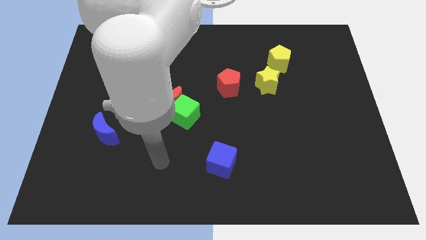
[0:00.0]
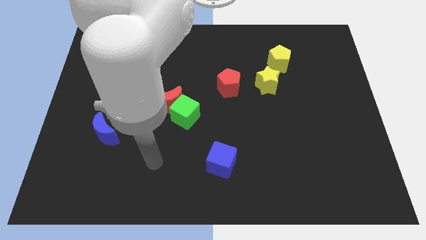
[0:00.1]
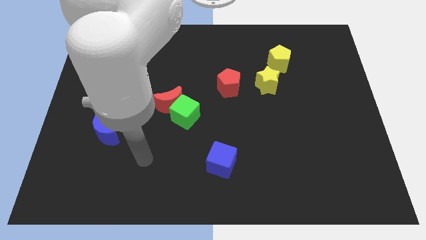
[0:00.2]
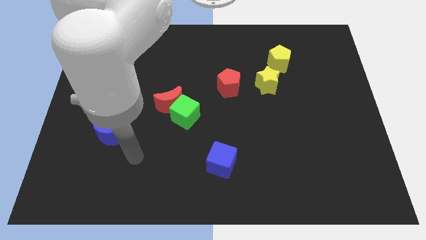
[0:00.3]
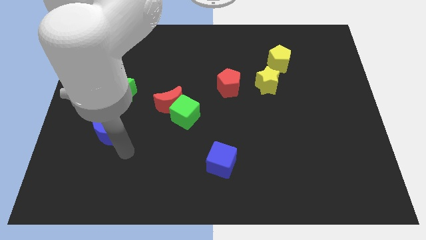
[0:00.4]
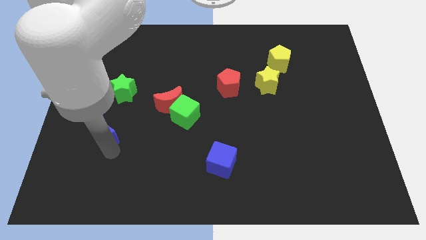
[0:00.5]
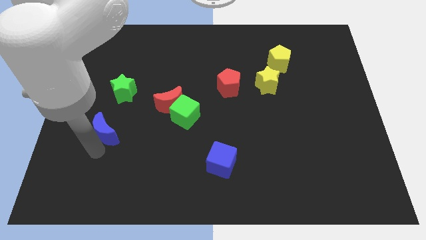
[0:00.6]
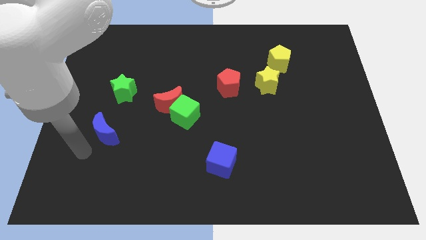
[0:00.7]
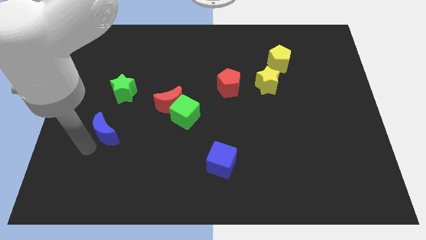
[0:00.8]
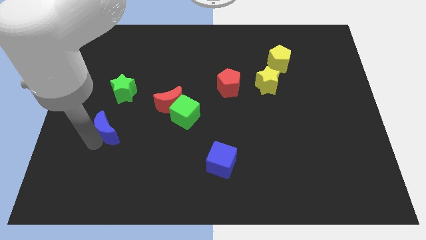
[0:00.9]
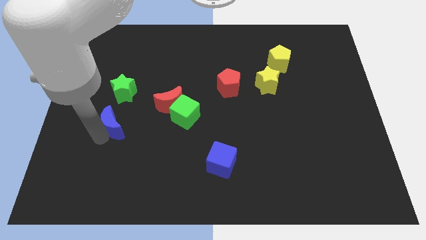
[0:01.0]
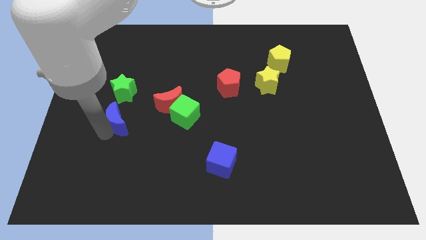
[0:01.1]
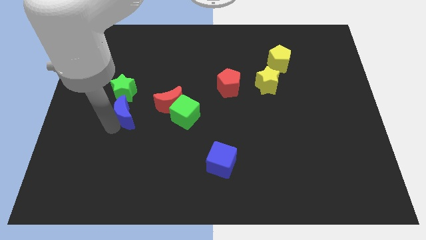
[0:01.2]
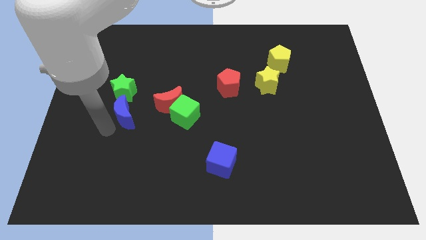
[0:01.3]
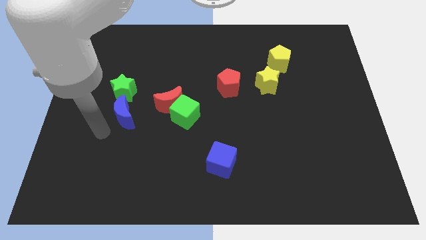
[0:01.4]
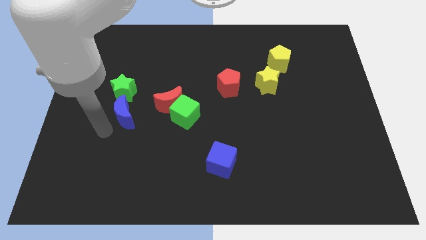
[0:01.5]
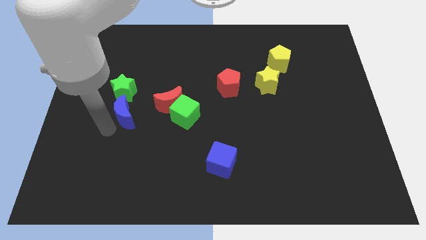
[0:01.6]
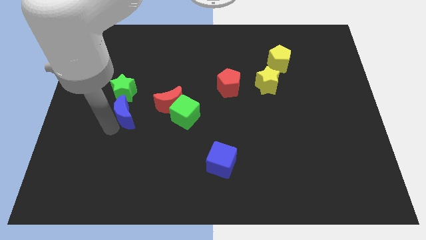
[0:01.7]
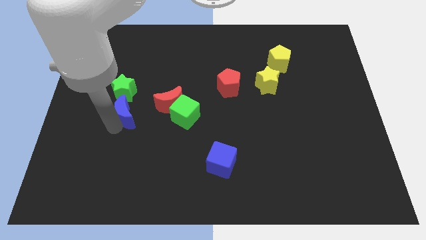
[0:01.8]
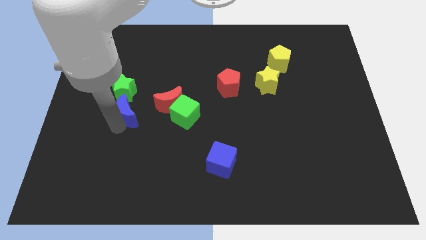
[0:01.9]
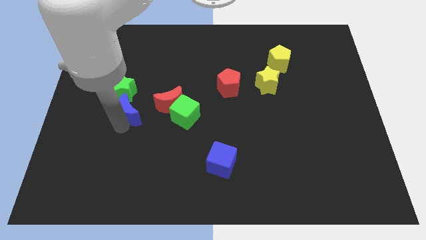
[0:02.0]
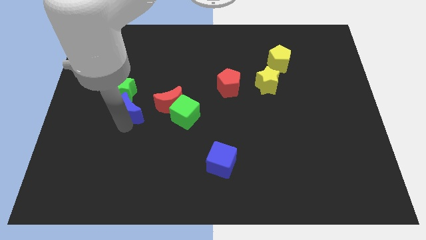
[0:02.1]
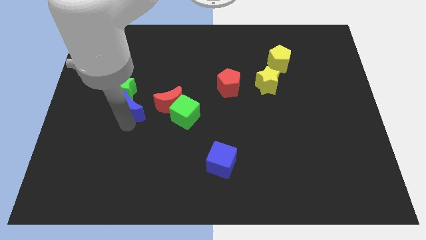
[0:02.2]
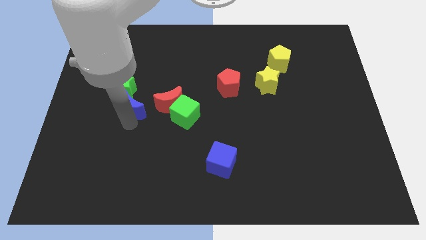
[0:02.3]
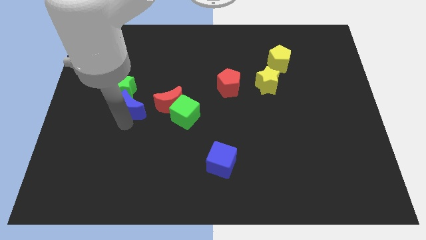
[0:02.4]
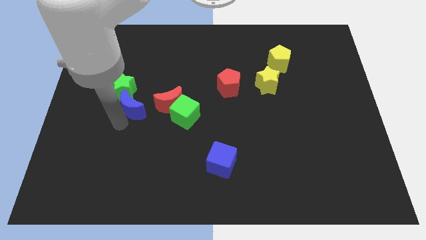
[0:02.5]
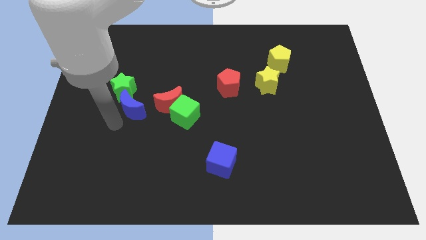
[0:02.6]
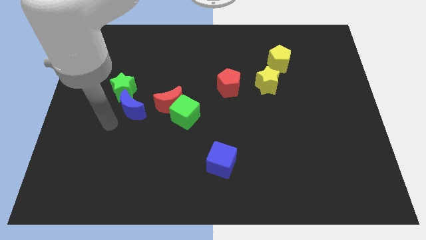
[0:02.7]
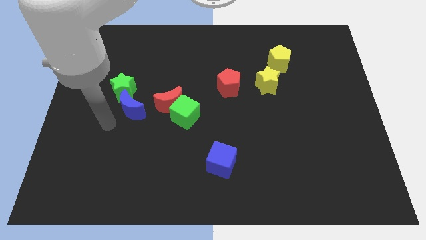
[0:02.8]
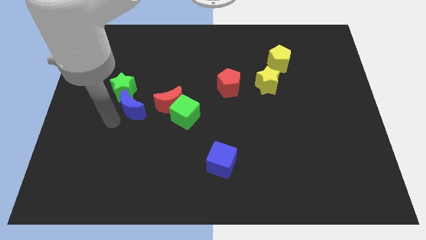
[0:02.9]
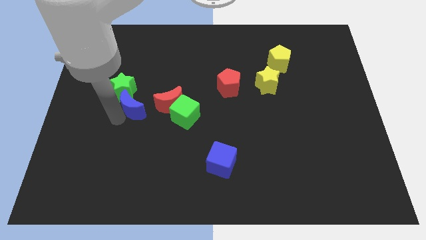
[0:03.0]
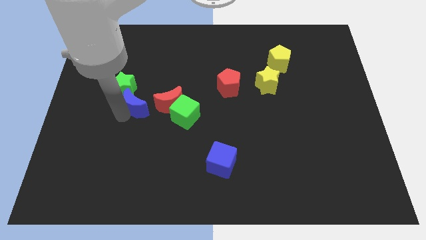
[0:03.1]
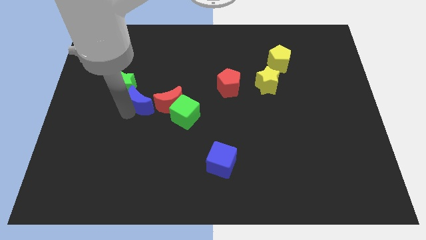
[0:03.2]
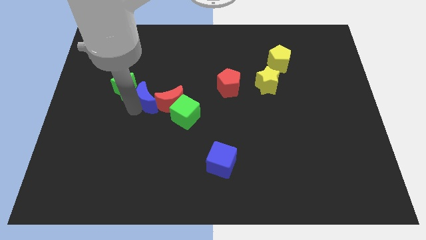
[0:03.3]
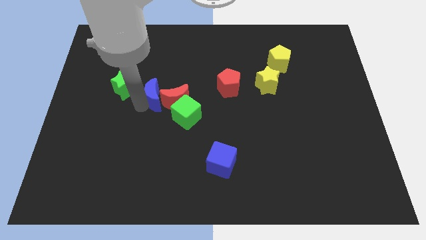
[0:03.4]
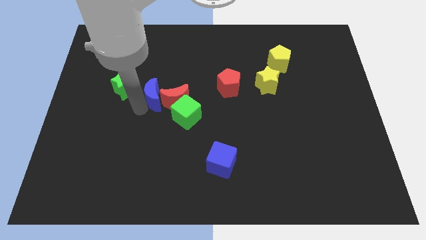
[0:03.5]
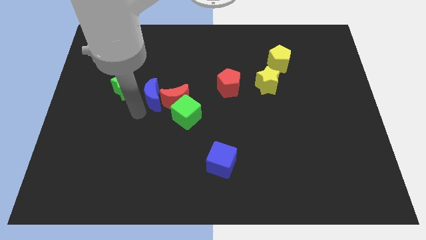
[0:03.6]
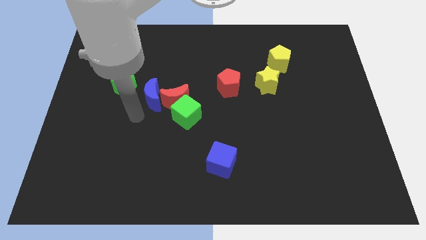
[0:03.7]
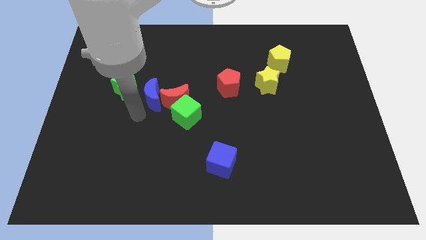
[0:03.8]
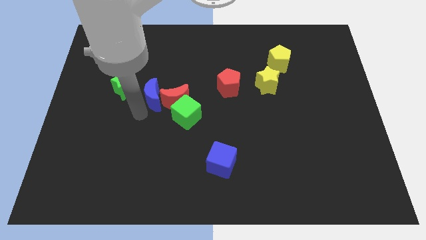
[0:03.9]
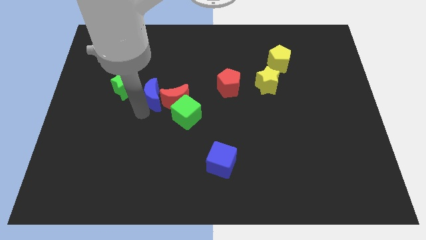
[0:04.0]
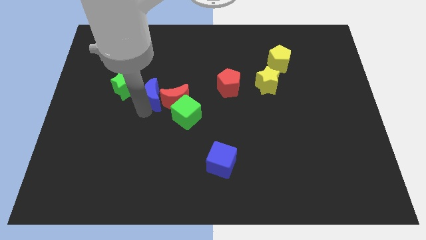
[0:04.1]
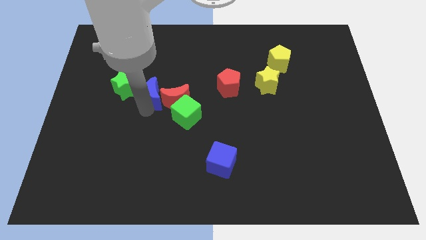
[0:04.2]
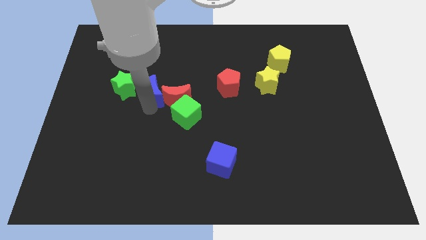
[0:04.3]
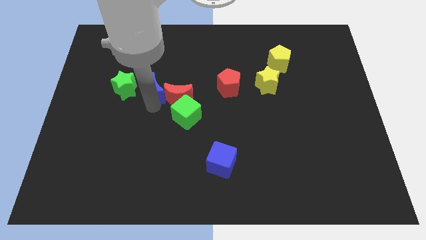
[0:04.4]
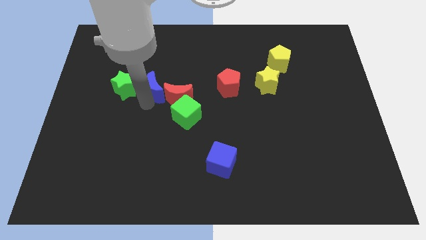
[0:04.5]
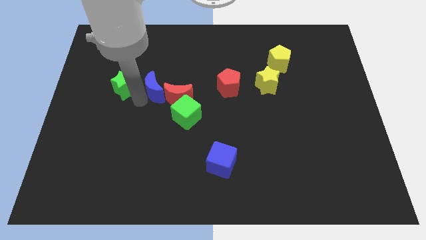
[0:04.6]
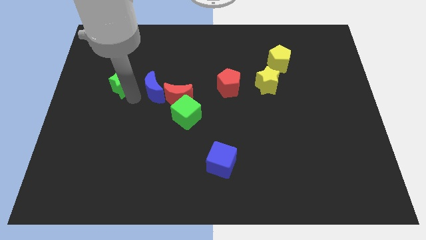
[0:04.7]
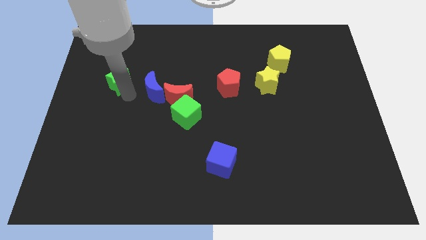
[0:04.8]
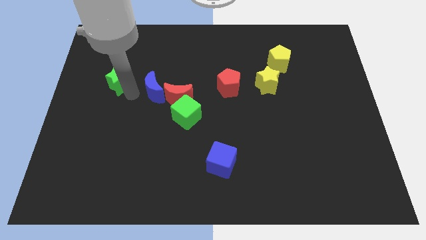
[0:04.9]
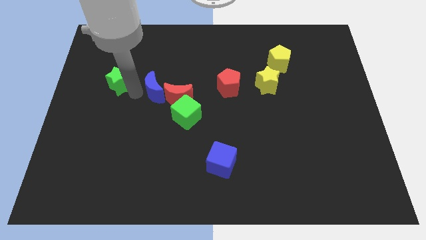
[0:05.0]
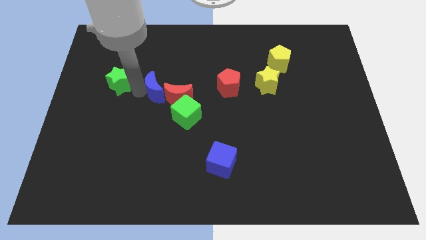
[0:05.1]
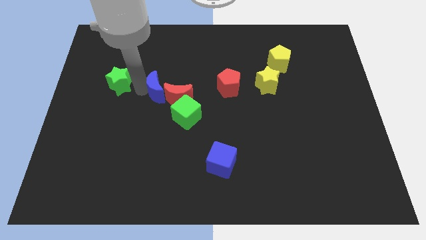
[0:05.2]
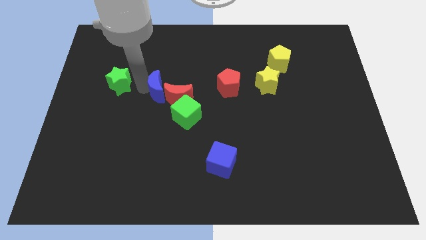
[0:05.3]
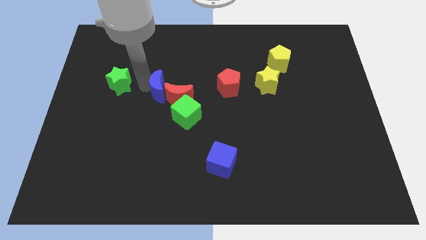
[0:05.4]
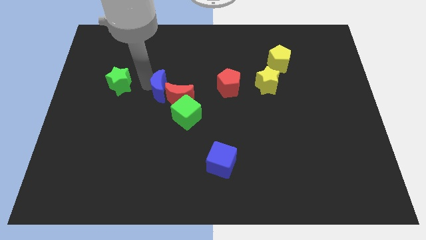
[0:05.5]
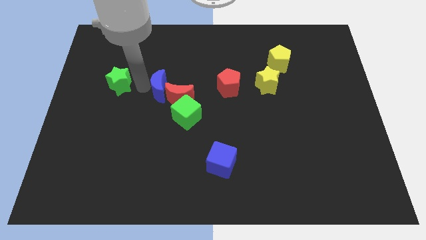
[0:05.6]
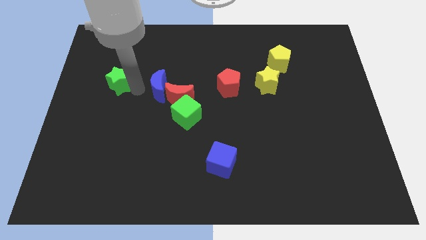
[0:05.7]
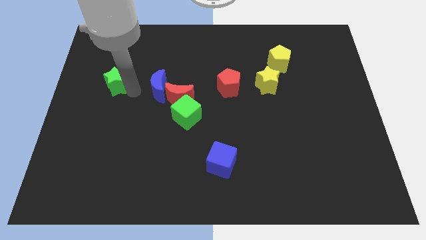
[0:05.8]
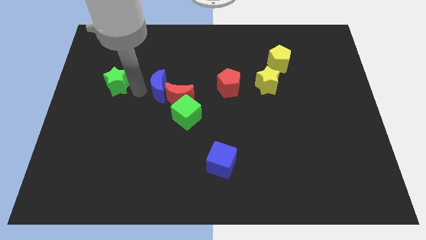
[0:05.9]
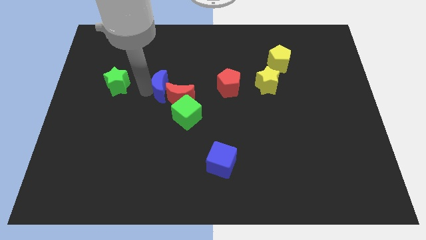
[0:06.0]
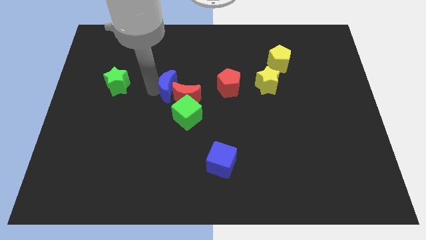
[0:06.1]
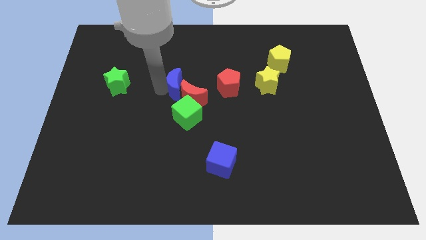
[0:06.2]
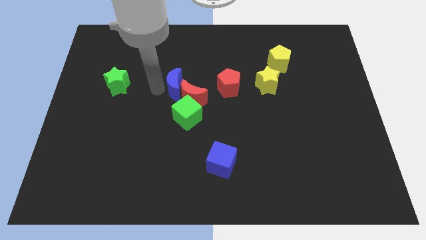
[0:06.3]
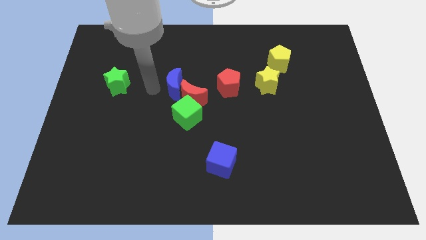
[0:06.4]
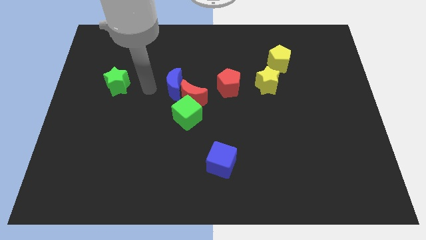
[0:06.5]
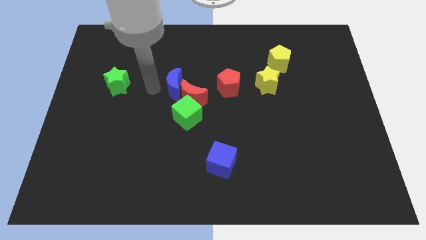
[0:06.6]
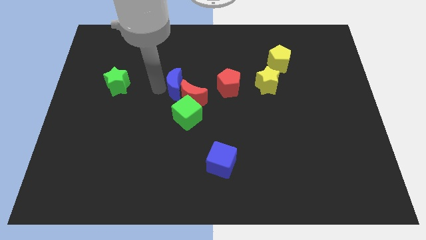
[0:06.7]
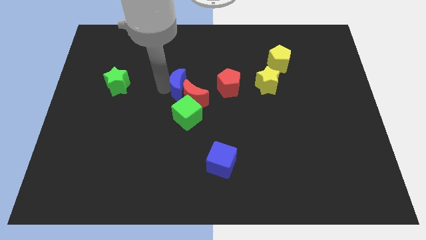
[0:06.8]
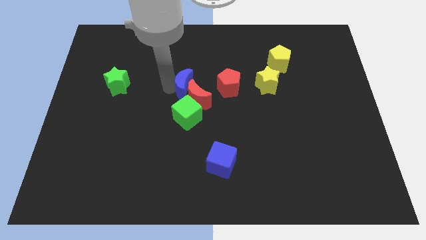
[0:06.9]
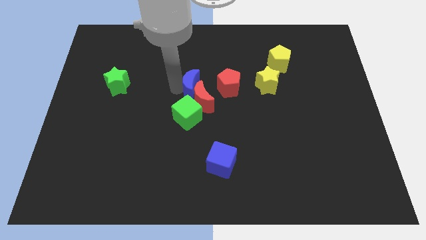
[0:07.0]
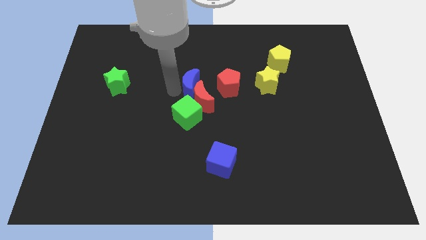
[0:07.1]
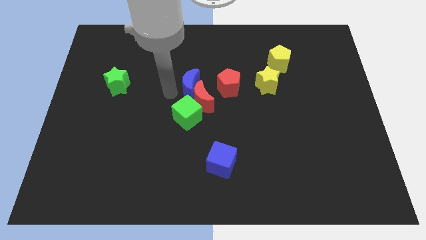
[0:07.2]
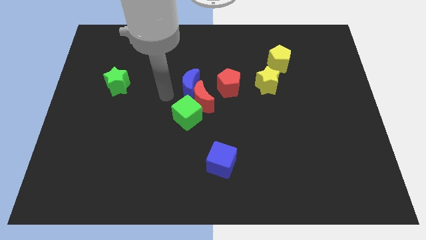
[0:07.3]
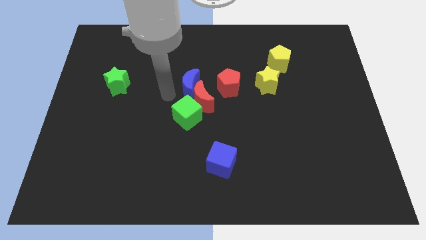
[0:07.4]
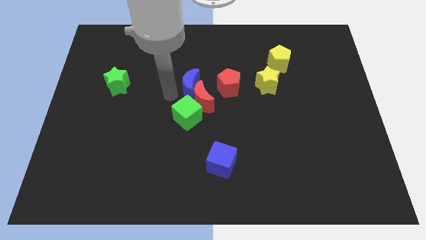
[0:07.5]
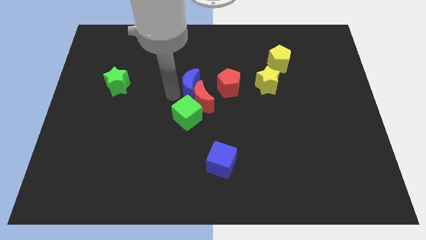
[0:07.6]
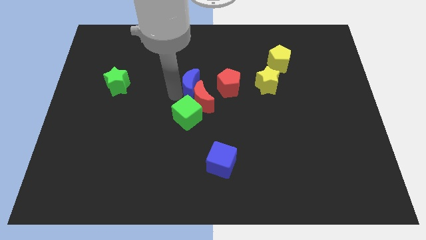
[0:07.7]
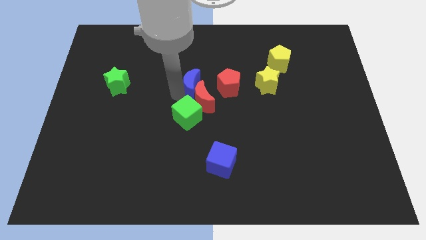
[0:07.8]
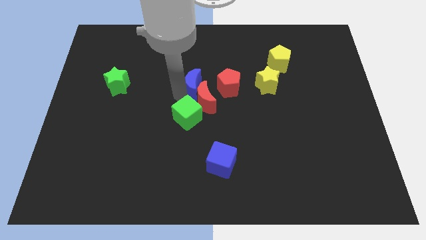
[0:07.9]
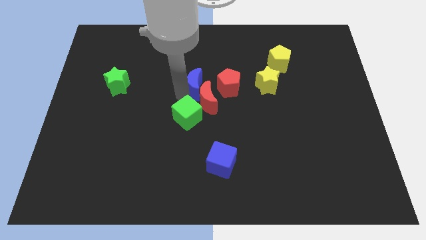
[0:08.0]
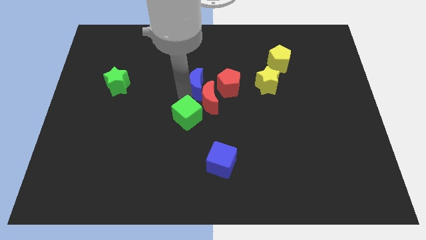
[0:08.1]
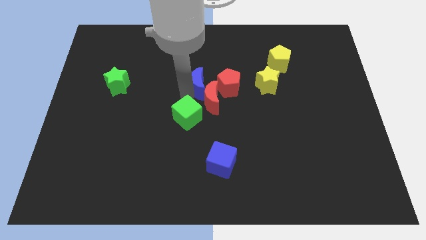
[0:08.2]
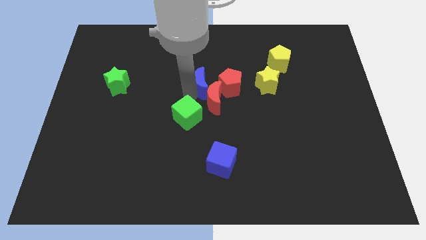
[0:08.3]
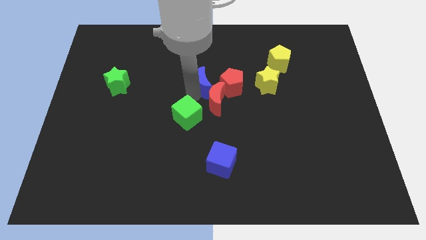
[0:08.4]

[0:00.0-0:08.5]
move the blue moon left of the yellow star
